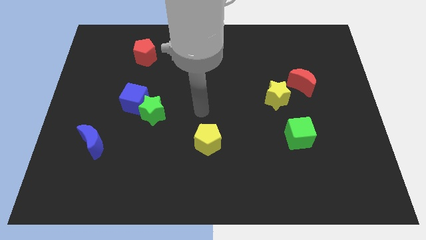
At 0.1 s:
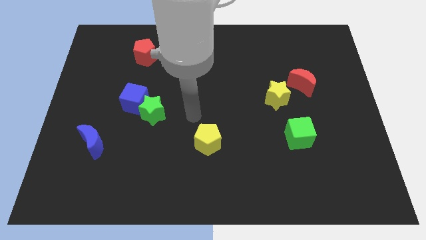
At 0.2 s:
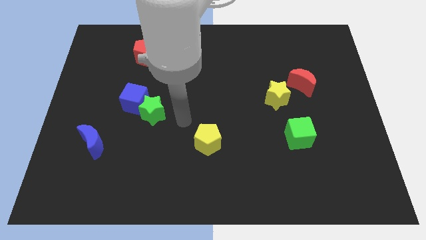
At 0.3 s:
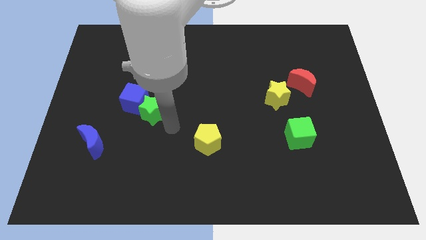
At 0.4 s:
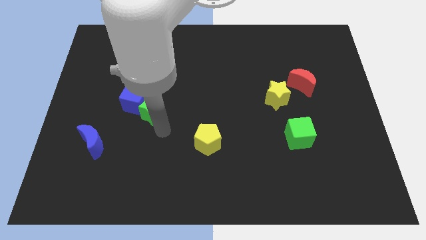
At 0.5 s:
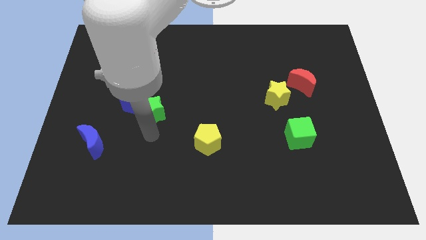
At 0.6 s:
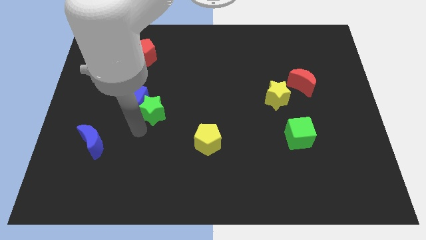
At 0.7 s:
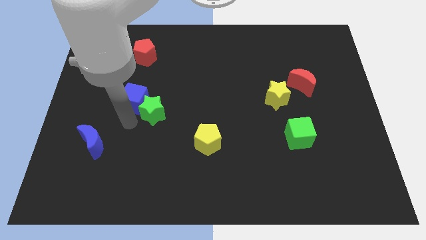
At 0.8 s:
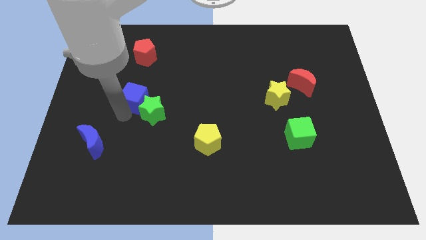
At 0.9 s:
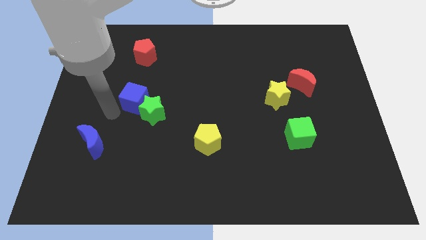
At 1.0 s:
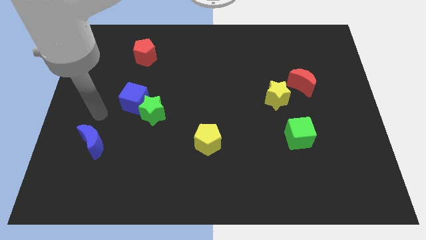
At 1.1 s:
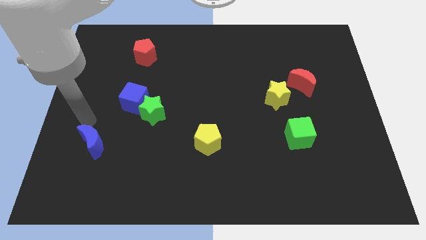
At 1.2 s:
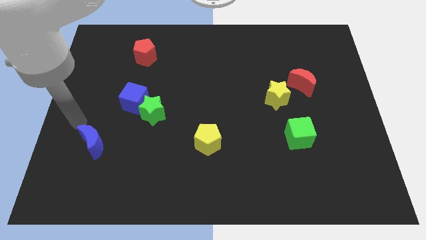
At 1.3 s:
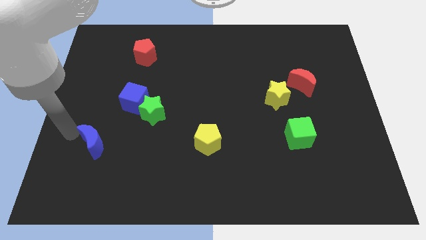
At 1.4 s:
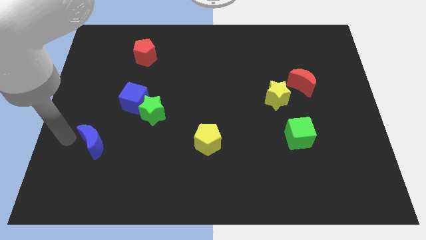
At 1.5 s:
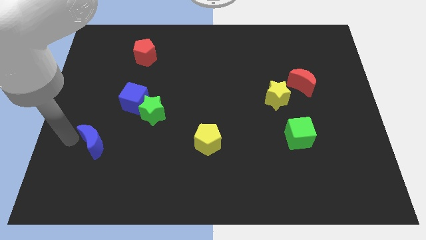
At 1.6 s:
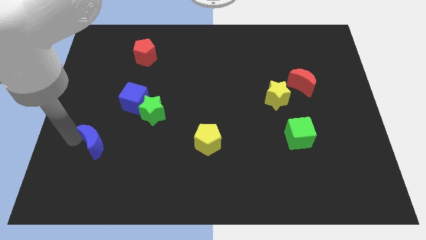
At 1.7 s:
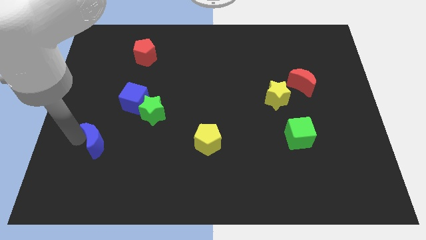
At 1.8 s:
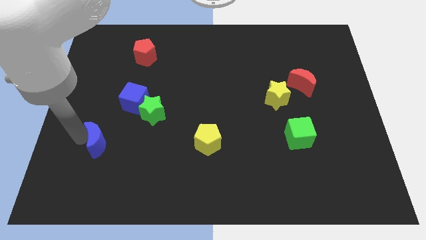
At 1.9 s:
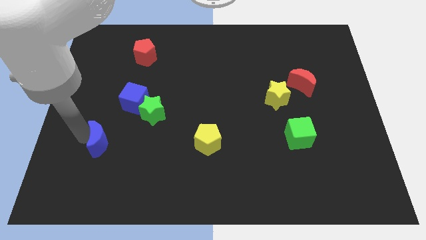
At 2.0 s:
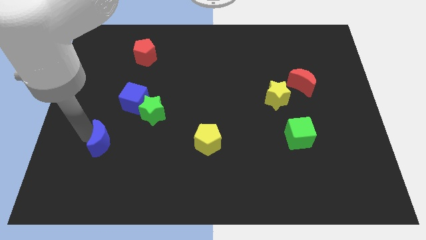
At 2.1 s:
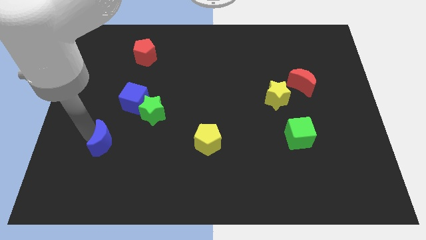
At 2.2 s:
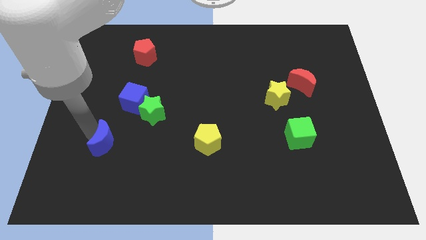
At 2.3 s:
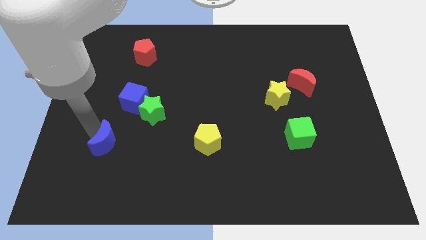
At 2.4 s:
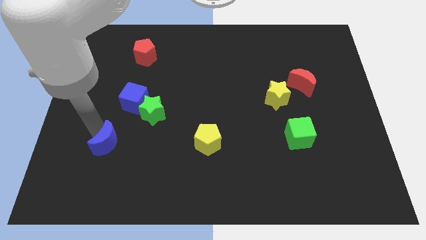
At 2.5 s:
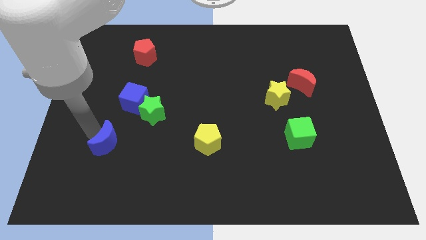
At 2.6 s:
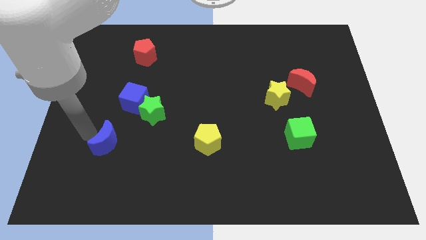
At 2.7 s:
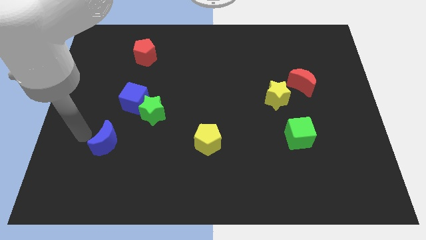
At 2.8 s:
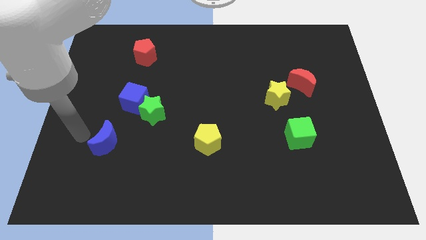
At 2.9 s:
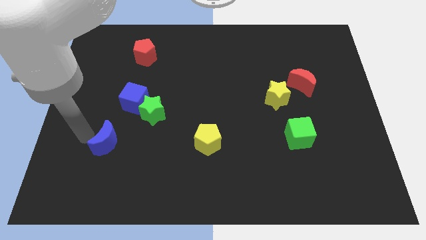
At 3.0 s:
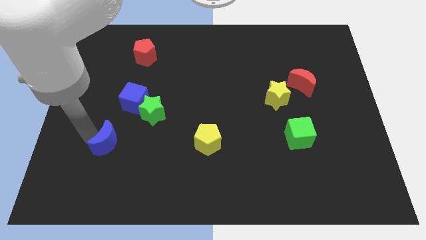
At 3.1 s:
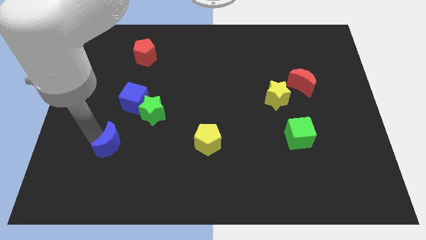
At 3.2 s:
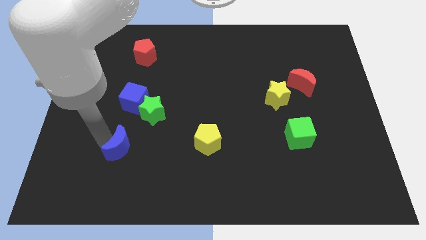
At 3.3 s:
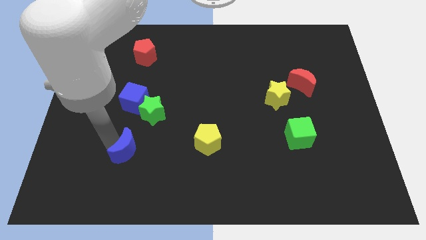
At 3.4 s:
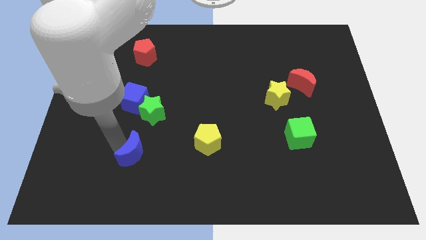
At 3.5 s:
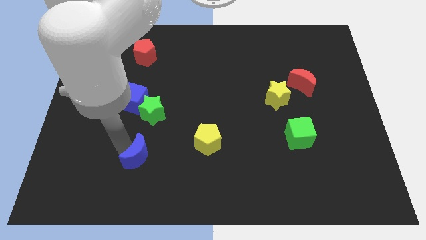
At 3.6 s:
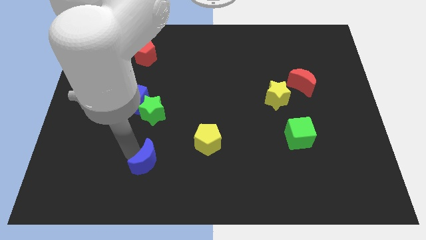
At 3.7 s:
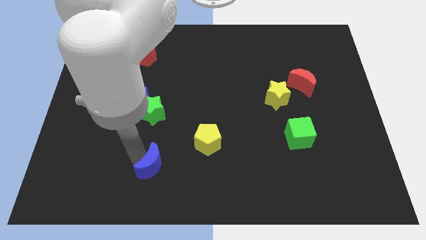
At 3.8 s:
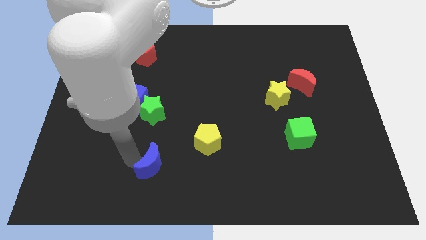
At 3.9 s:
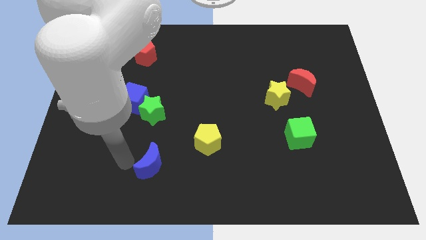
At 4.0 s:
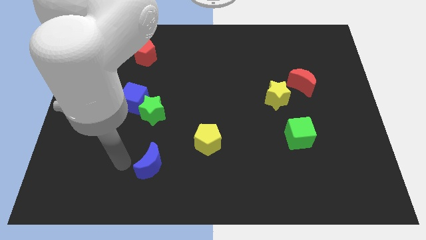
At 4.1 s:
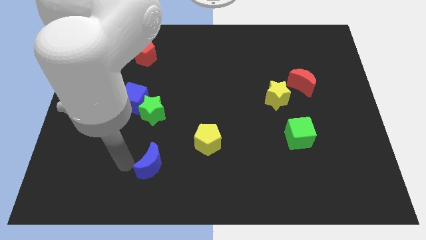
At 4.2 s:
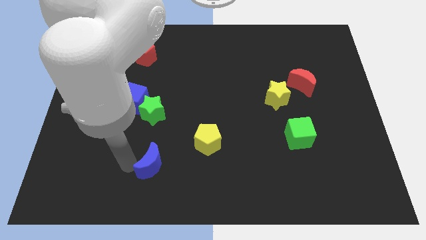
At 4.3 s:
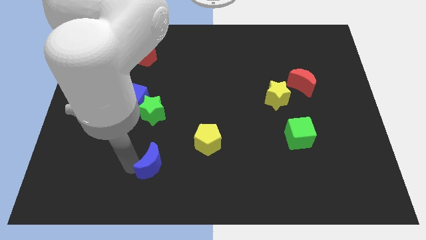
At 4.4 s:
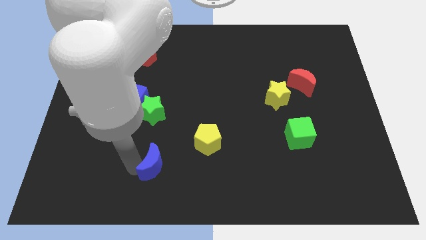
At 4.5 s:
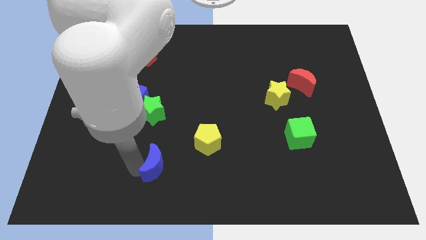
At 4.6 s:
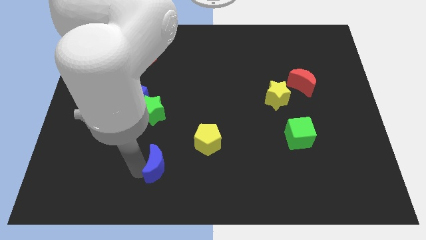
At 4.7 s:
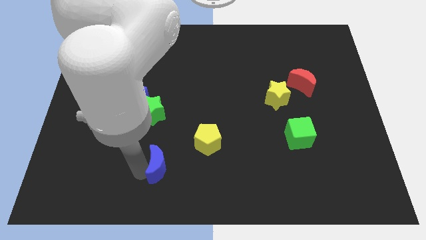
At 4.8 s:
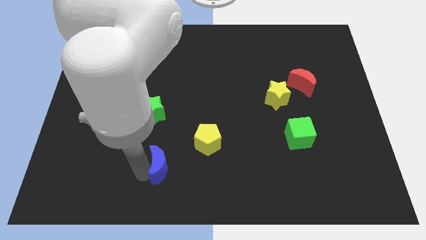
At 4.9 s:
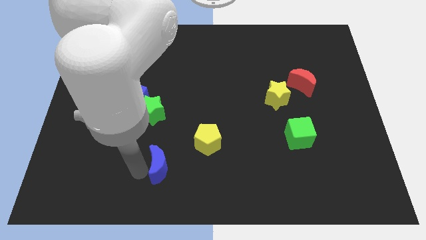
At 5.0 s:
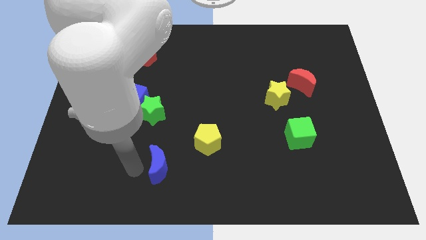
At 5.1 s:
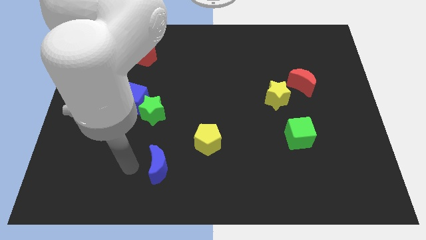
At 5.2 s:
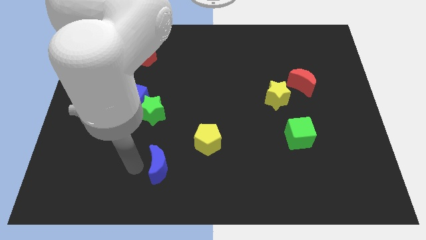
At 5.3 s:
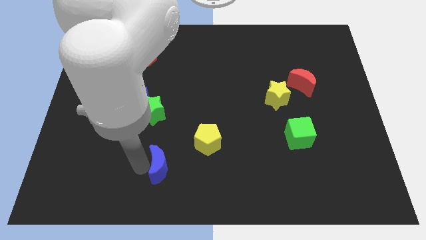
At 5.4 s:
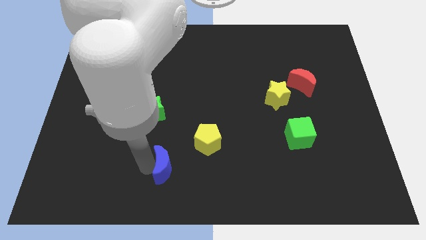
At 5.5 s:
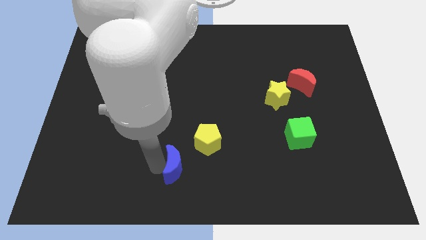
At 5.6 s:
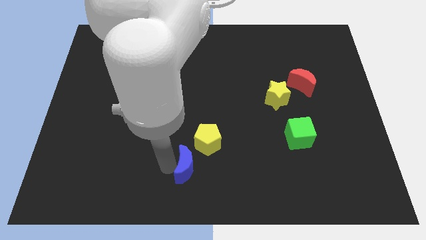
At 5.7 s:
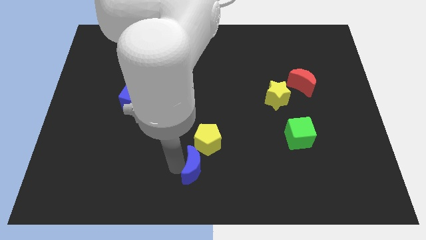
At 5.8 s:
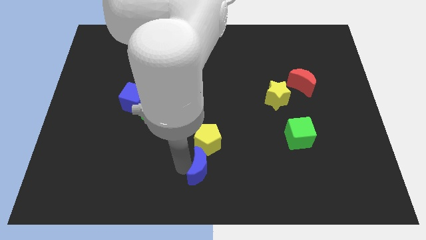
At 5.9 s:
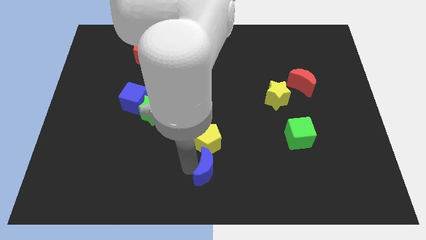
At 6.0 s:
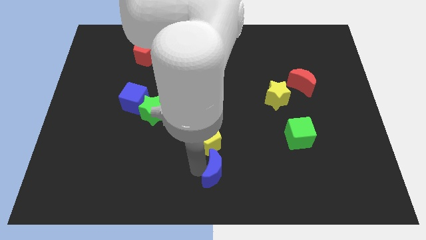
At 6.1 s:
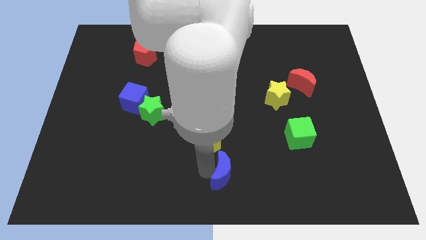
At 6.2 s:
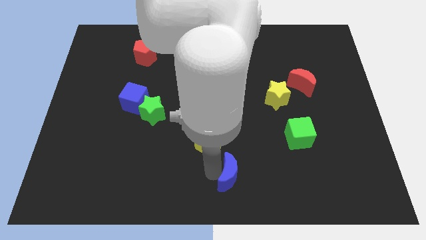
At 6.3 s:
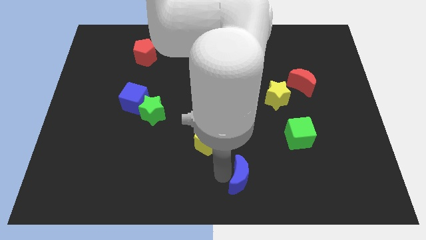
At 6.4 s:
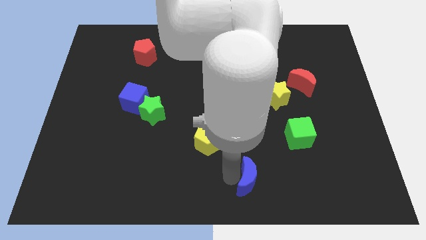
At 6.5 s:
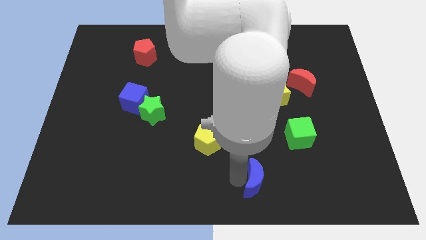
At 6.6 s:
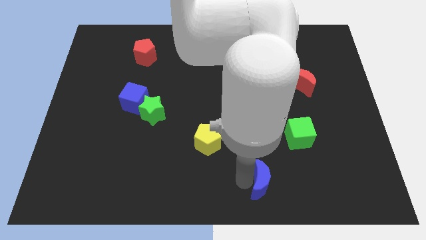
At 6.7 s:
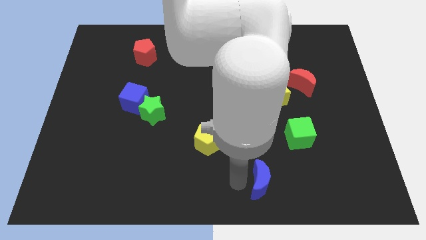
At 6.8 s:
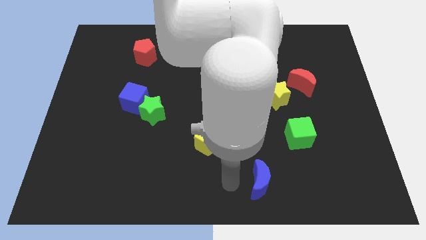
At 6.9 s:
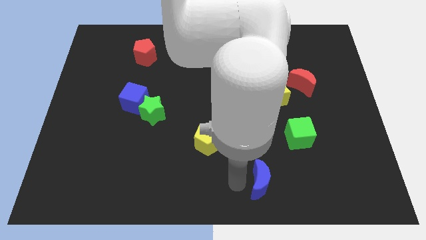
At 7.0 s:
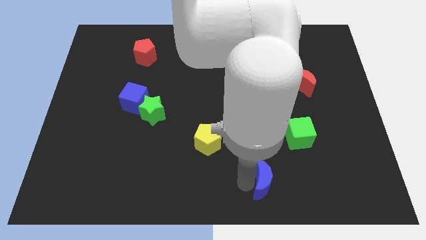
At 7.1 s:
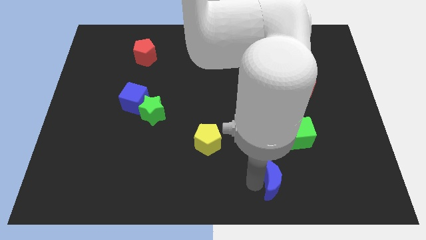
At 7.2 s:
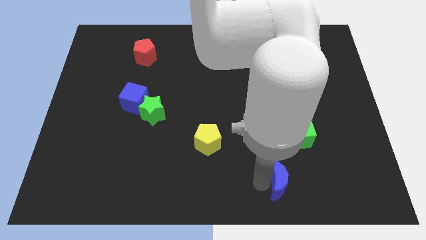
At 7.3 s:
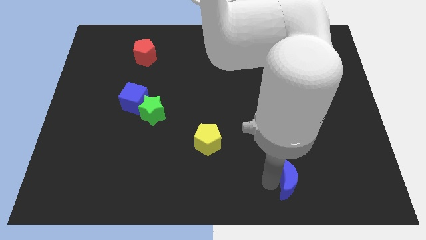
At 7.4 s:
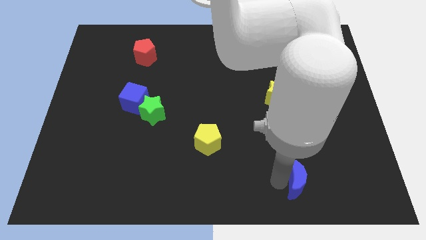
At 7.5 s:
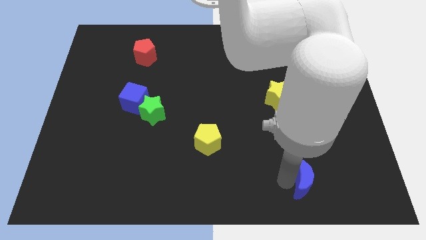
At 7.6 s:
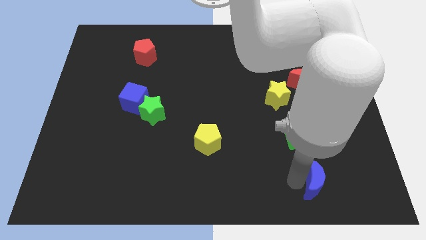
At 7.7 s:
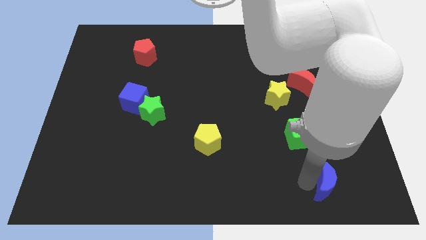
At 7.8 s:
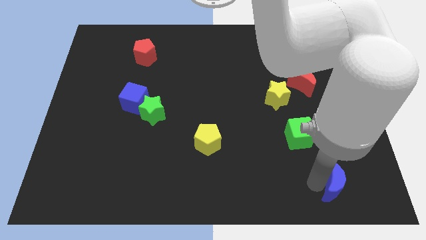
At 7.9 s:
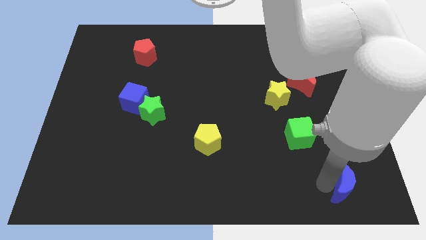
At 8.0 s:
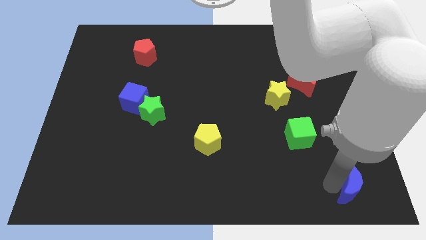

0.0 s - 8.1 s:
move the blue moon to the bottom right corner
